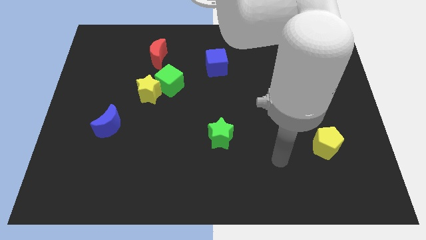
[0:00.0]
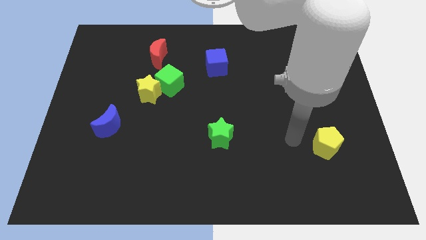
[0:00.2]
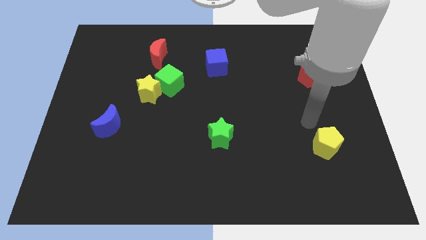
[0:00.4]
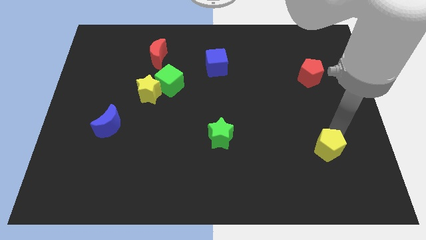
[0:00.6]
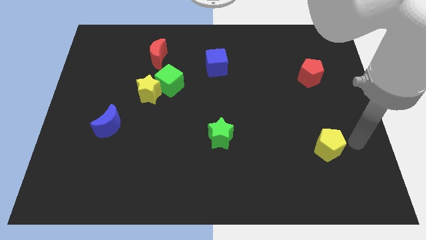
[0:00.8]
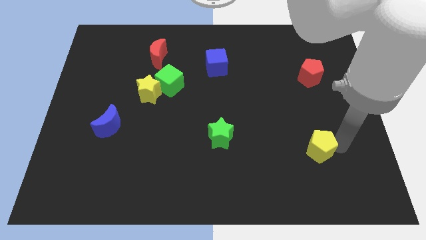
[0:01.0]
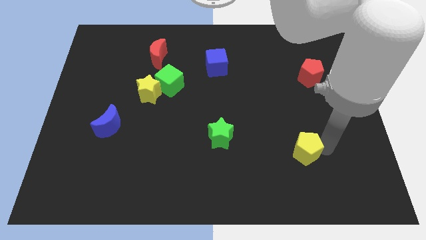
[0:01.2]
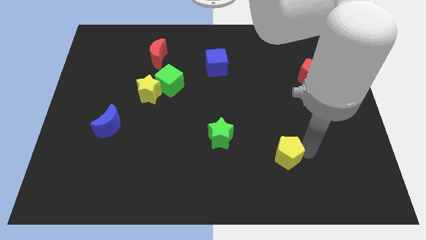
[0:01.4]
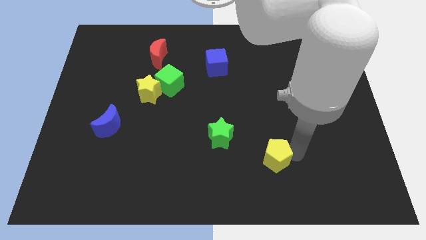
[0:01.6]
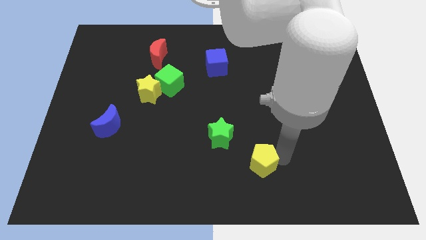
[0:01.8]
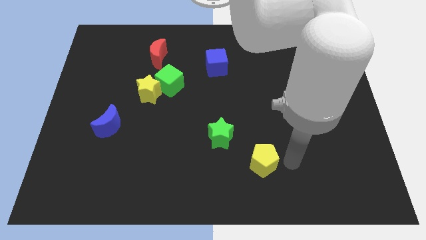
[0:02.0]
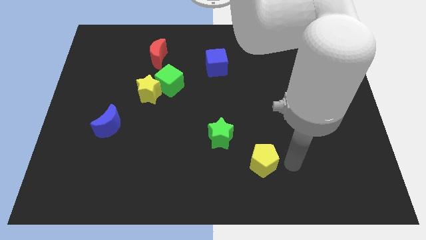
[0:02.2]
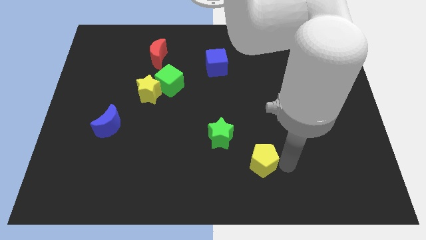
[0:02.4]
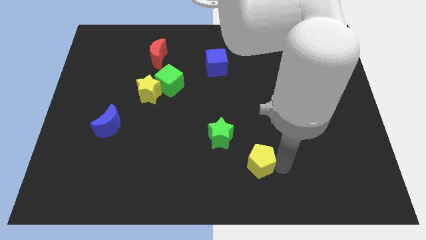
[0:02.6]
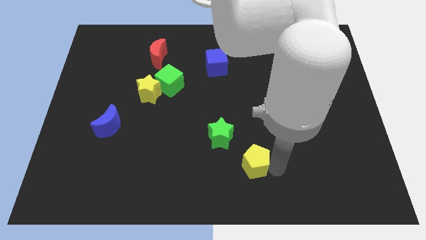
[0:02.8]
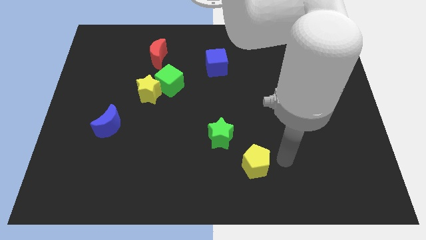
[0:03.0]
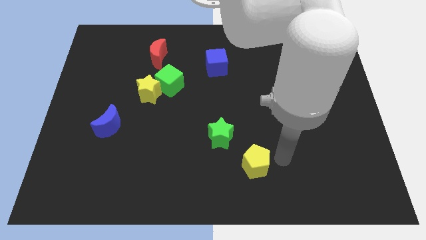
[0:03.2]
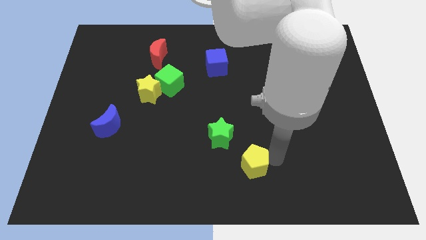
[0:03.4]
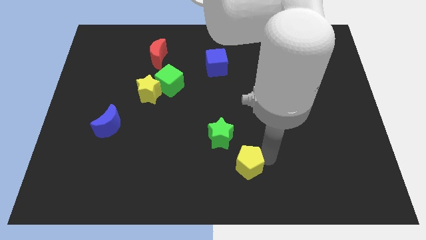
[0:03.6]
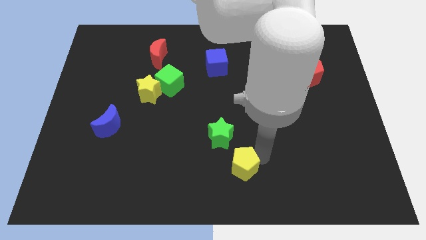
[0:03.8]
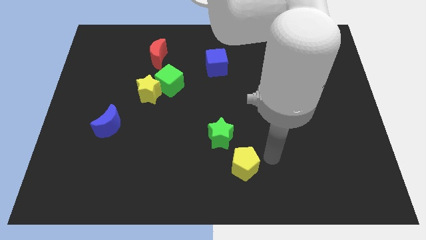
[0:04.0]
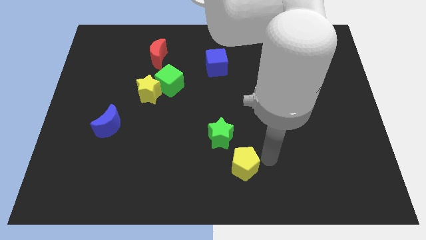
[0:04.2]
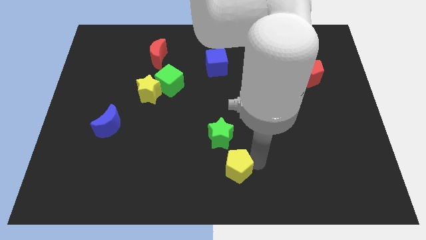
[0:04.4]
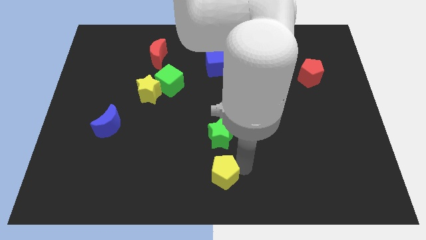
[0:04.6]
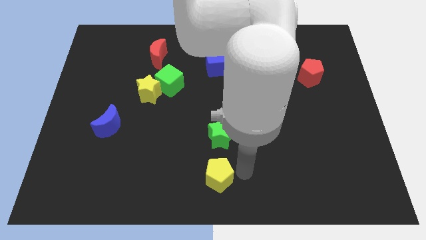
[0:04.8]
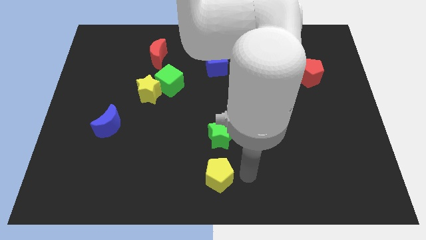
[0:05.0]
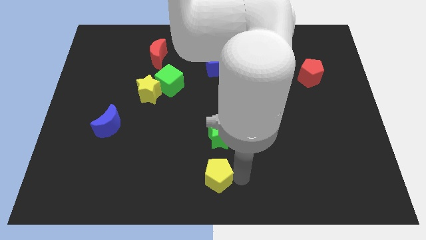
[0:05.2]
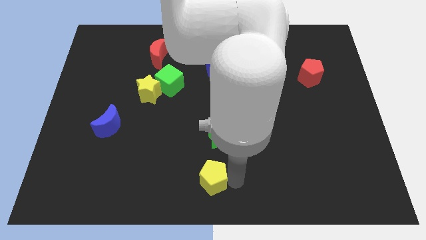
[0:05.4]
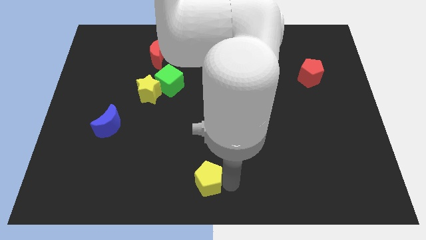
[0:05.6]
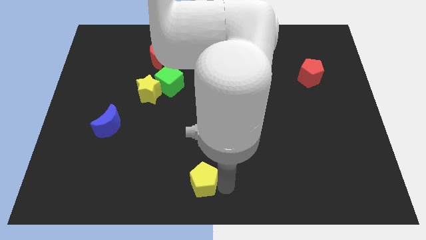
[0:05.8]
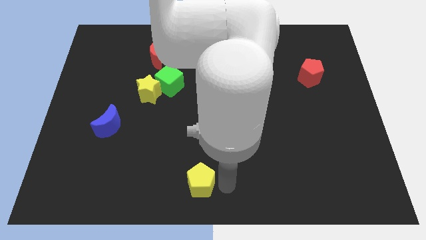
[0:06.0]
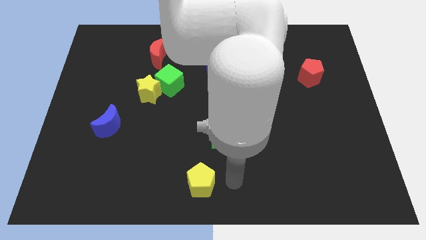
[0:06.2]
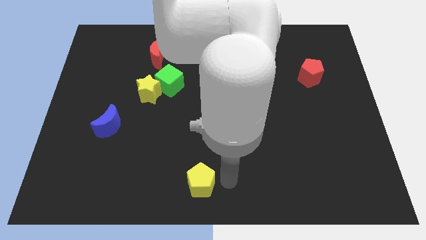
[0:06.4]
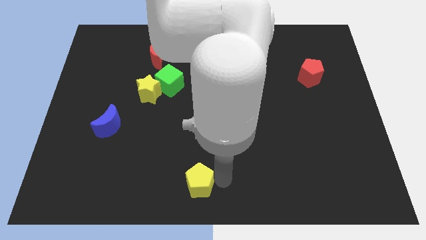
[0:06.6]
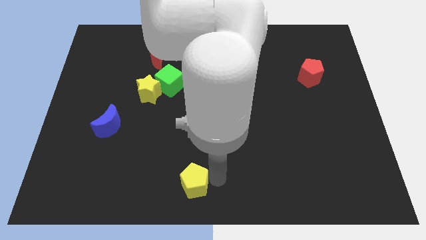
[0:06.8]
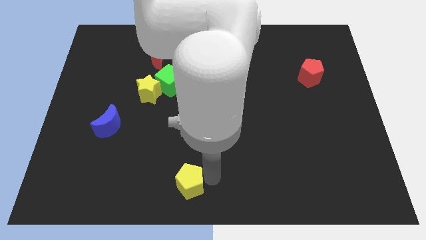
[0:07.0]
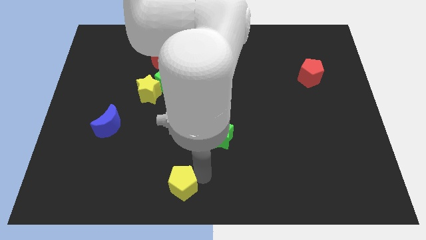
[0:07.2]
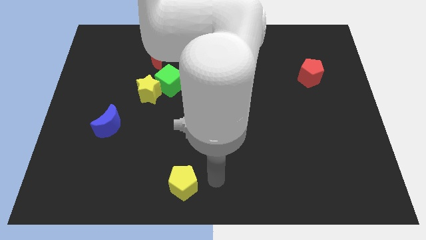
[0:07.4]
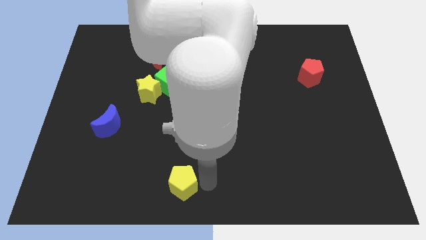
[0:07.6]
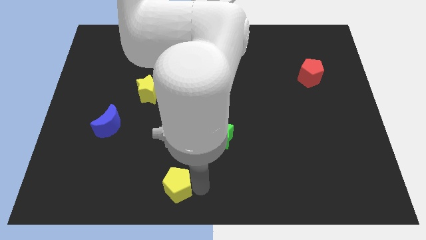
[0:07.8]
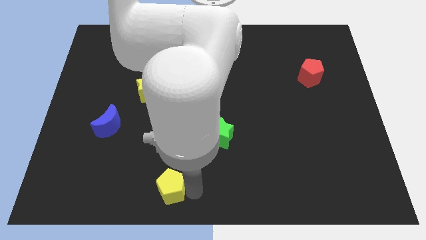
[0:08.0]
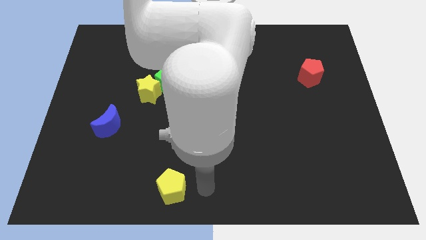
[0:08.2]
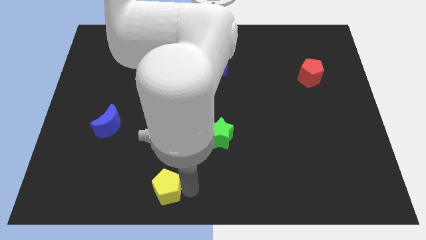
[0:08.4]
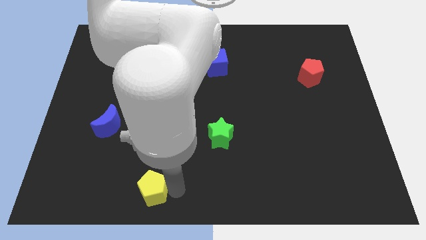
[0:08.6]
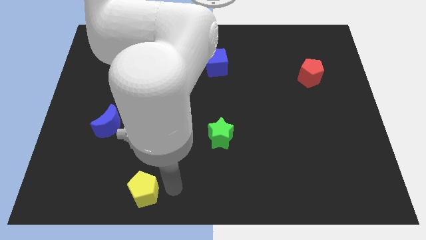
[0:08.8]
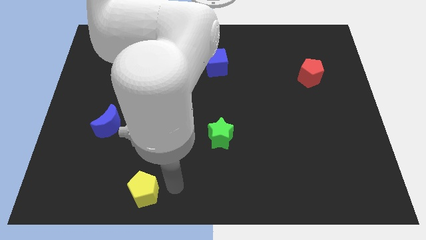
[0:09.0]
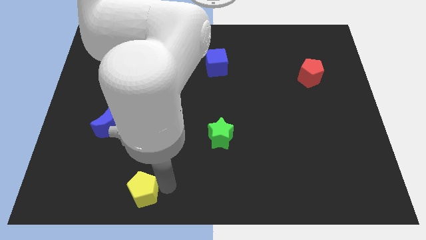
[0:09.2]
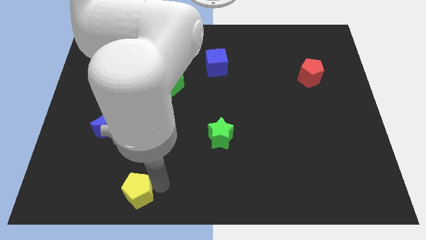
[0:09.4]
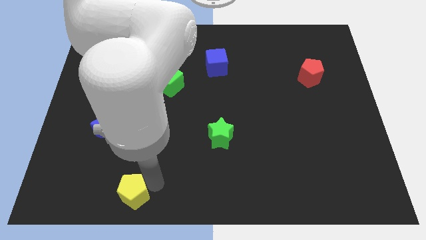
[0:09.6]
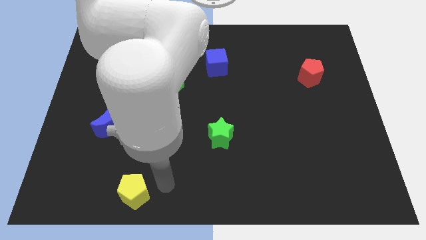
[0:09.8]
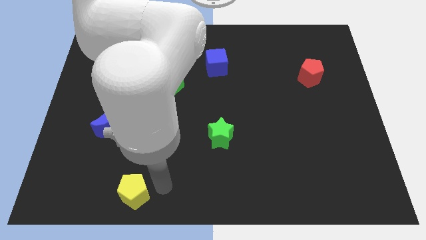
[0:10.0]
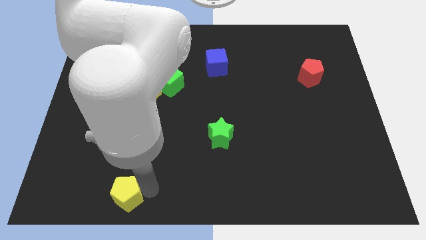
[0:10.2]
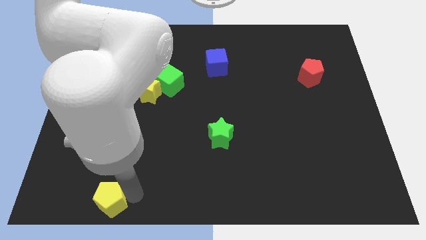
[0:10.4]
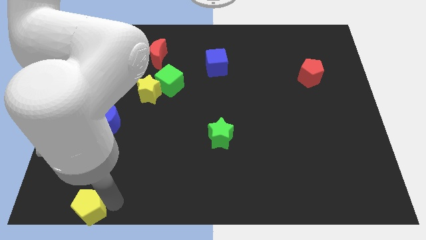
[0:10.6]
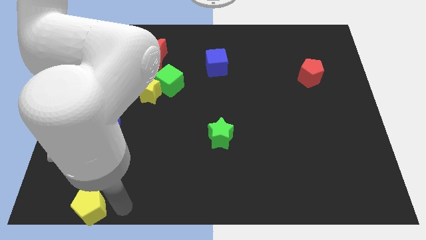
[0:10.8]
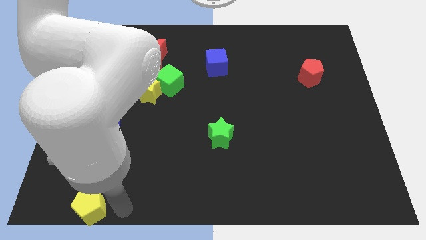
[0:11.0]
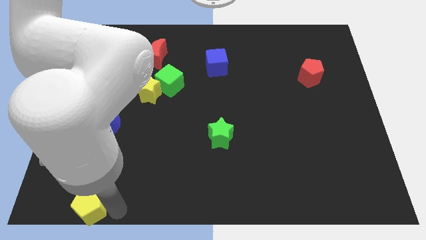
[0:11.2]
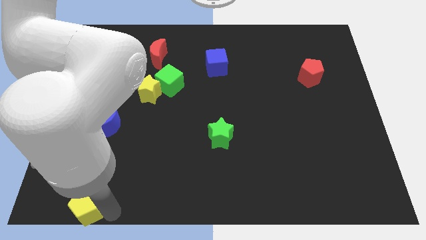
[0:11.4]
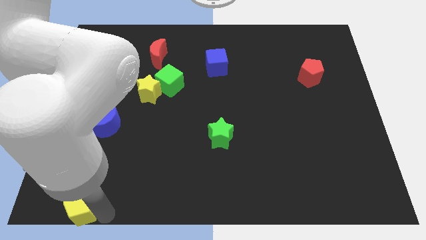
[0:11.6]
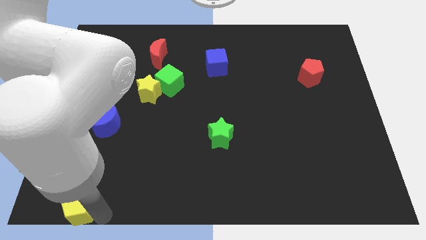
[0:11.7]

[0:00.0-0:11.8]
put the yellow pentagon to the lower left corner
